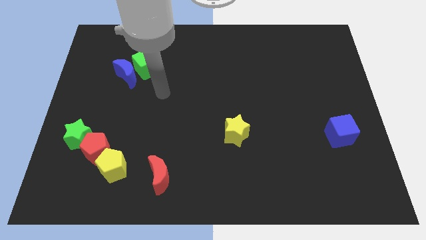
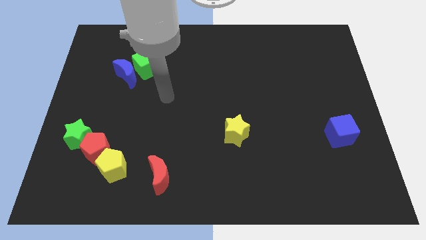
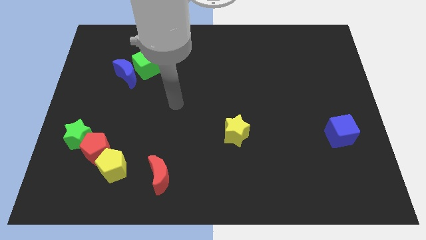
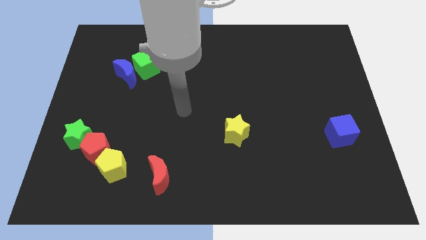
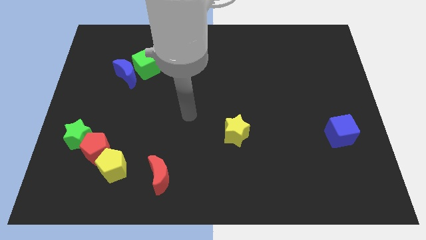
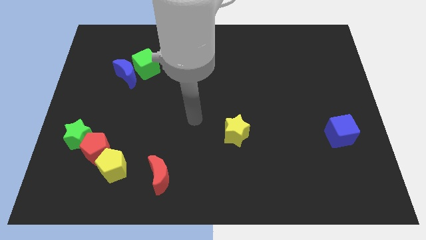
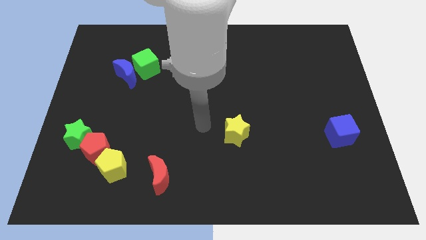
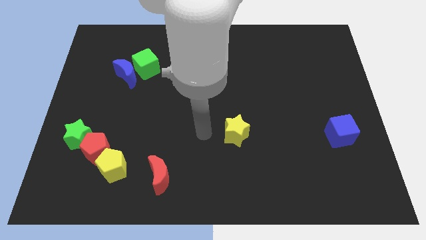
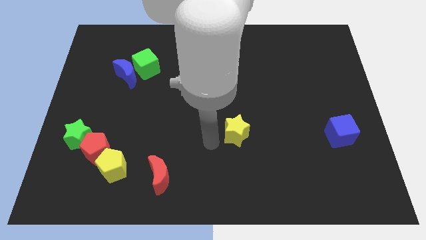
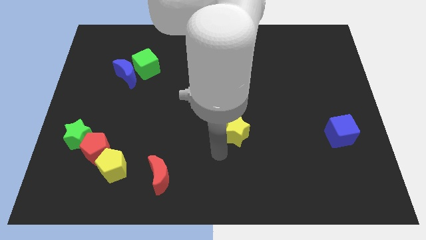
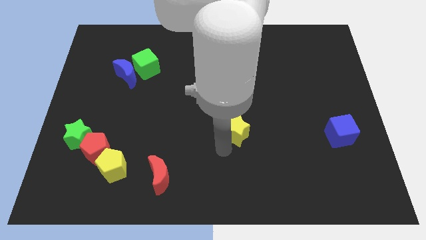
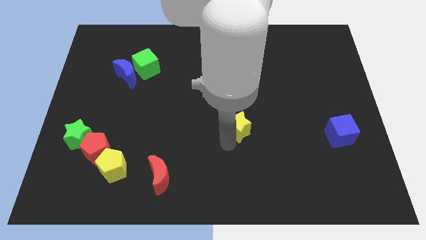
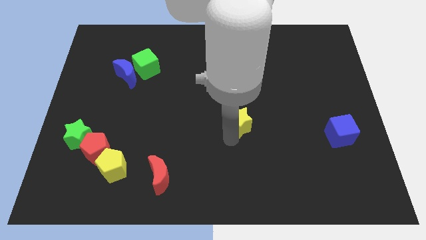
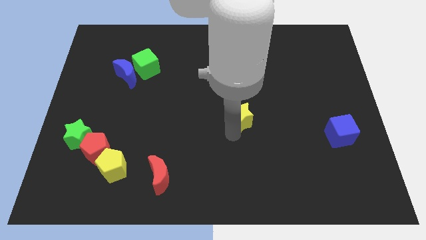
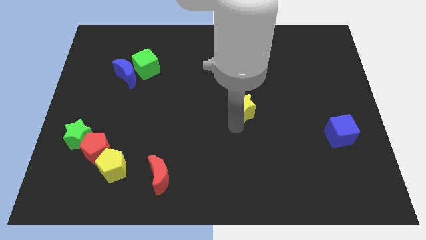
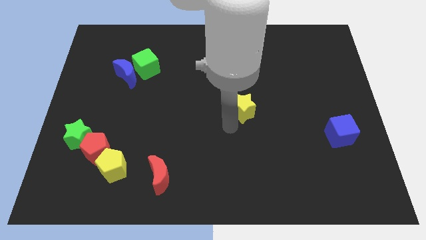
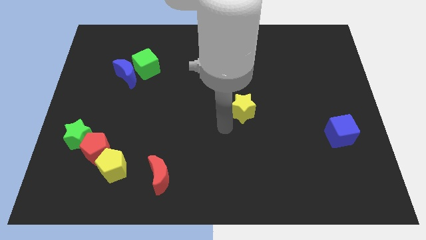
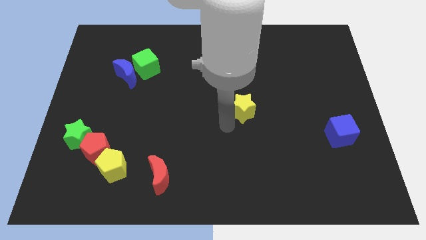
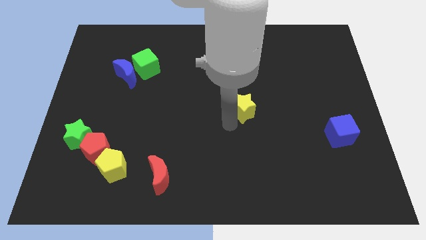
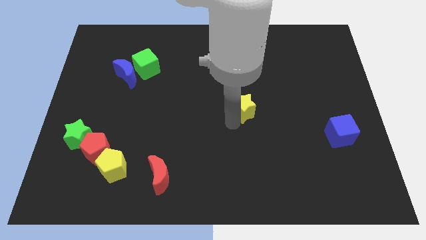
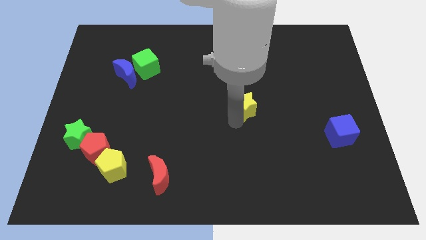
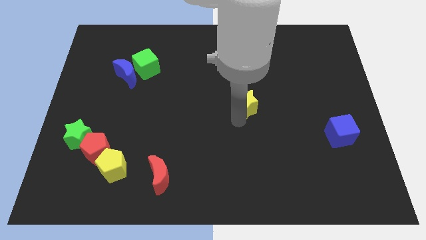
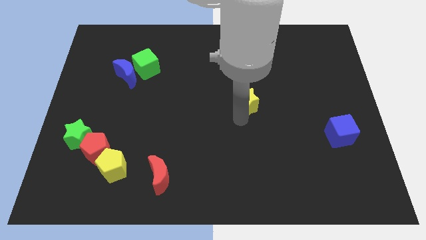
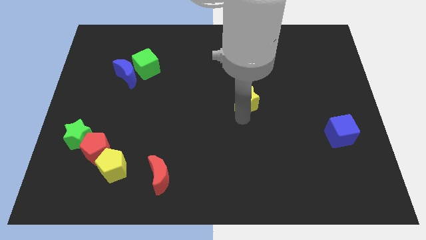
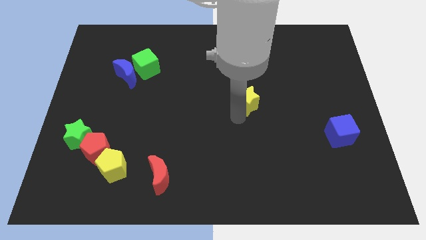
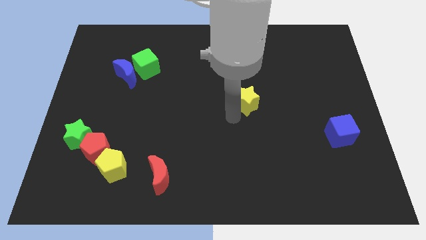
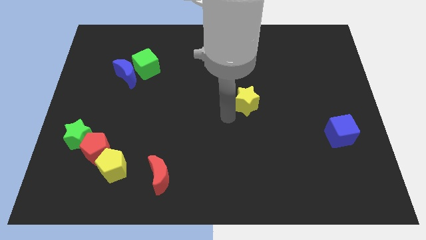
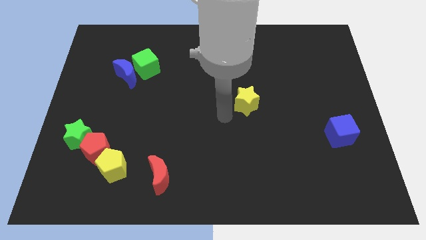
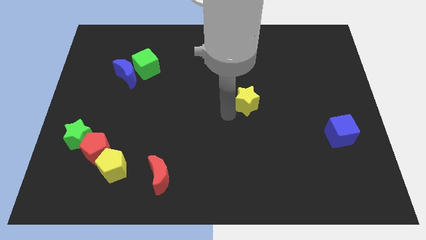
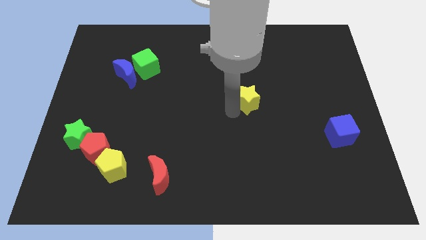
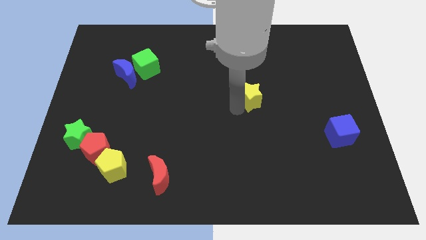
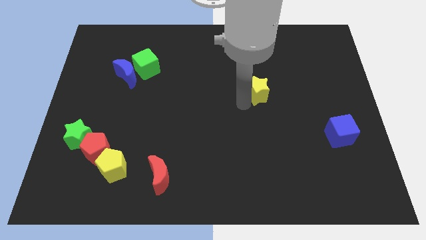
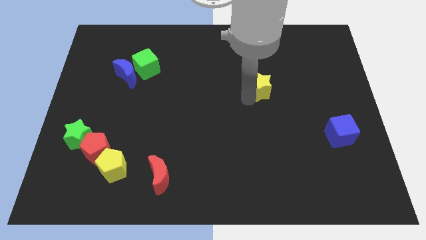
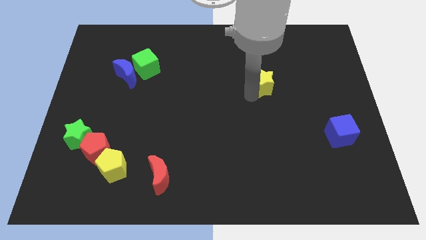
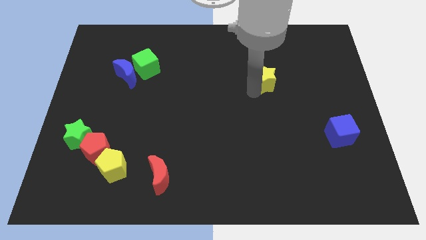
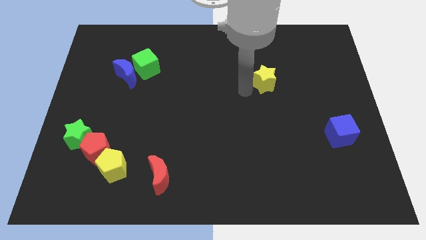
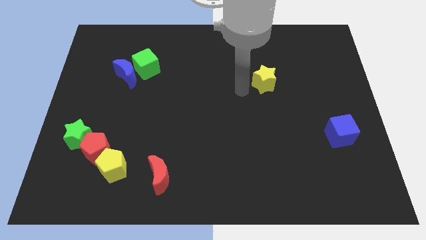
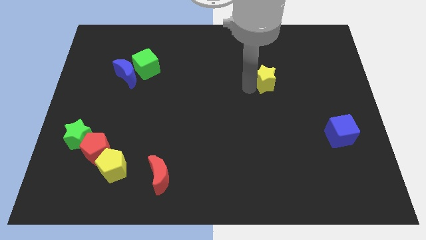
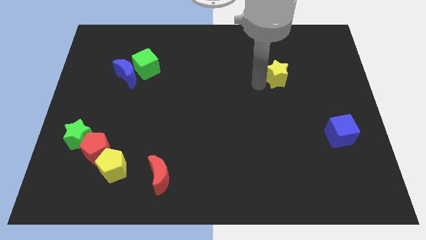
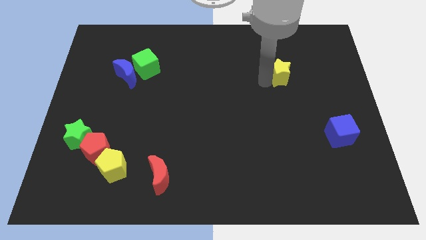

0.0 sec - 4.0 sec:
slide the yellow star upwards and then to the right

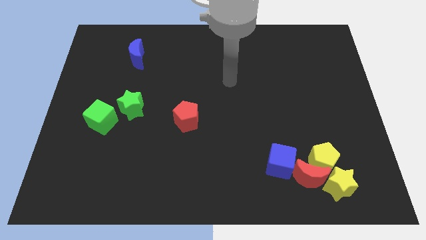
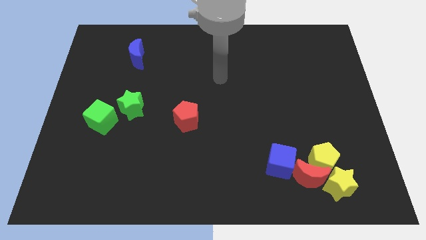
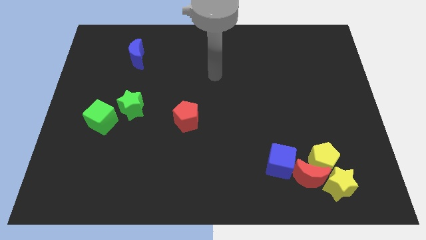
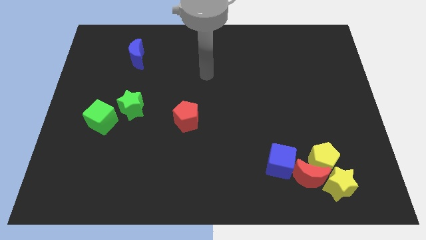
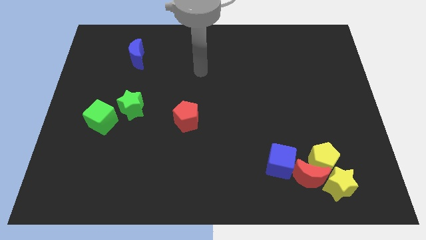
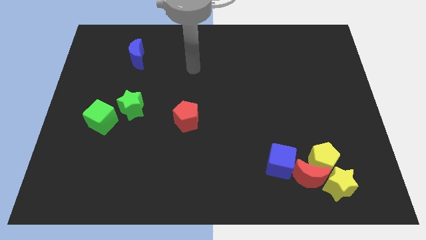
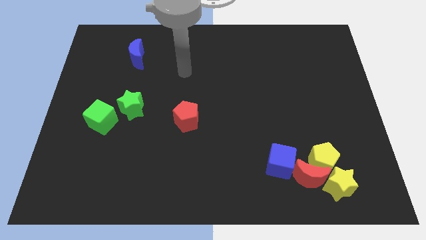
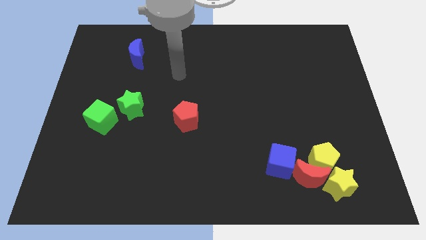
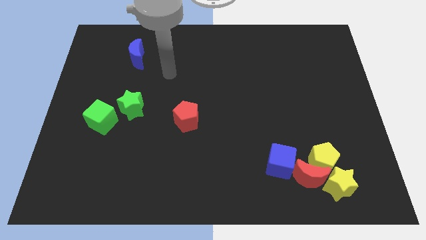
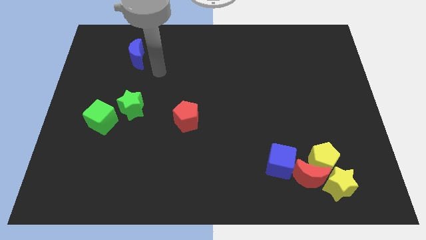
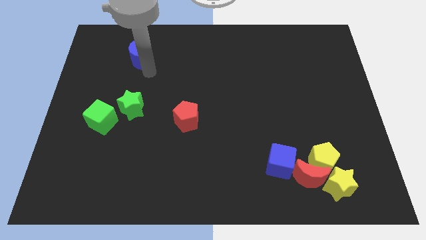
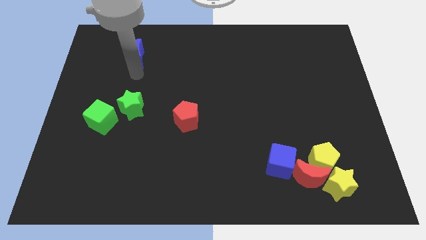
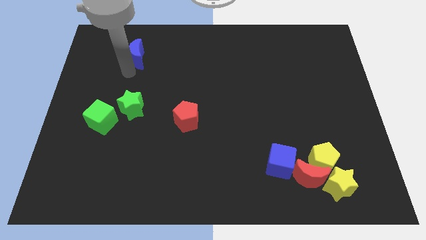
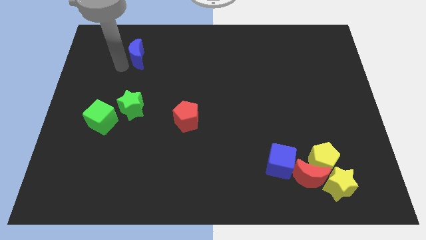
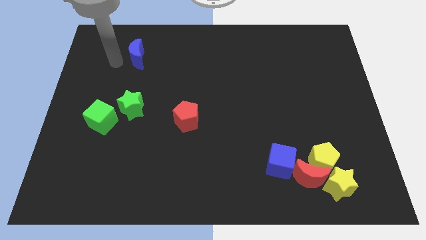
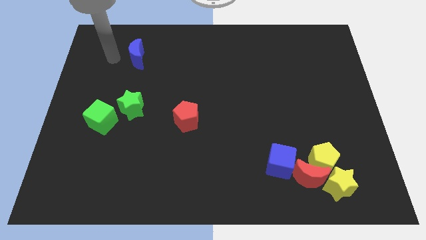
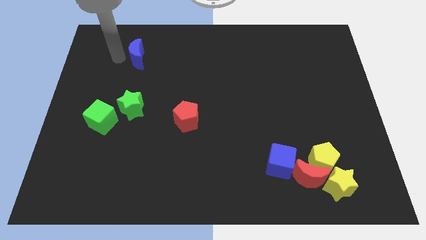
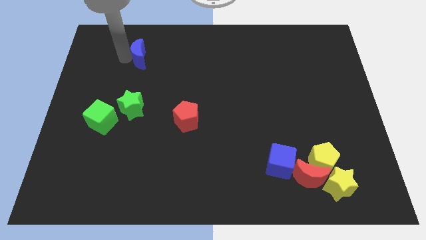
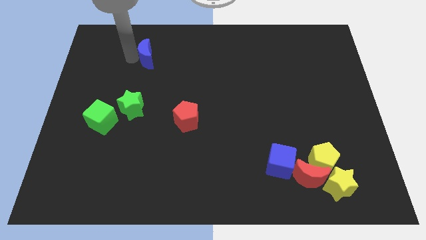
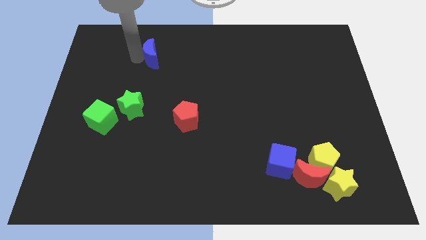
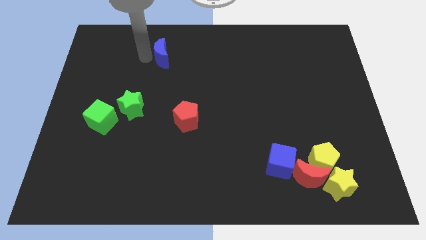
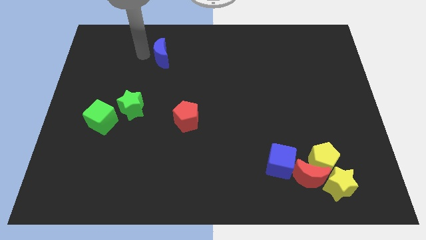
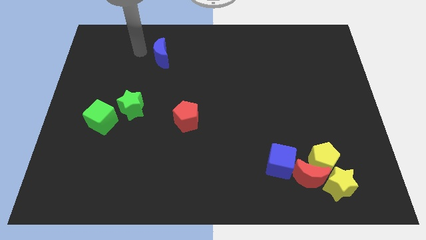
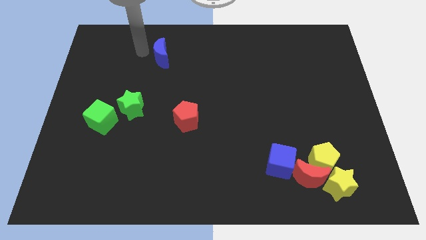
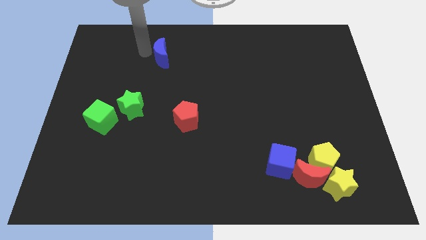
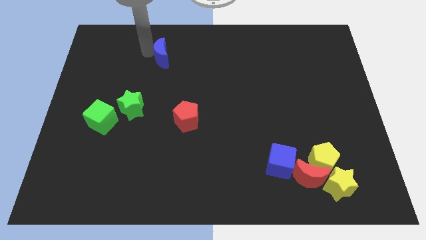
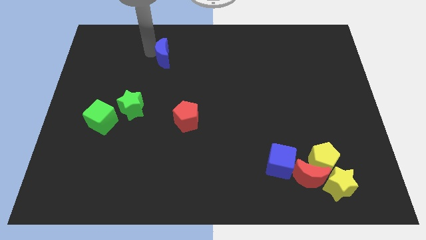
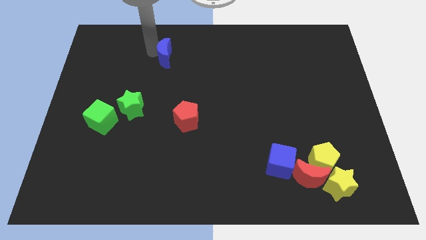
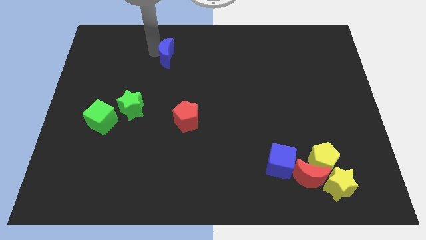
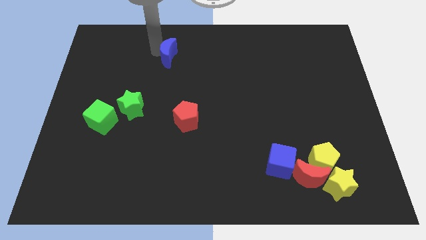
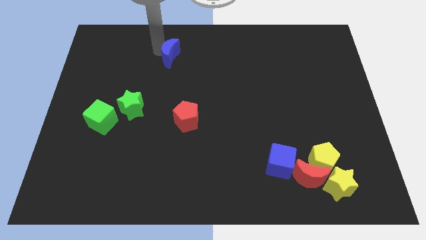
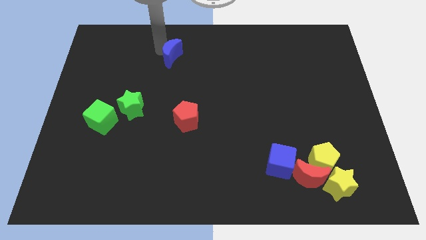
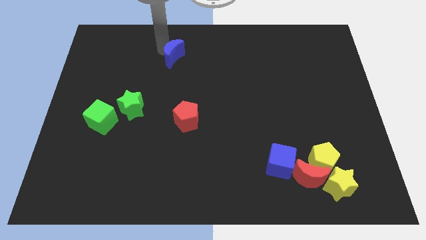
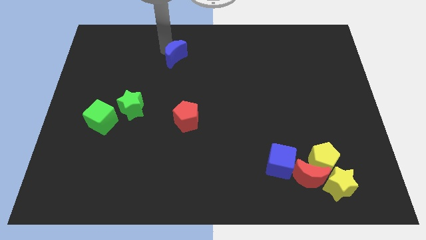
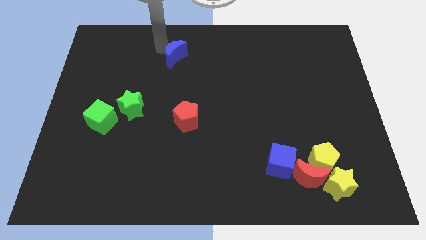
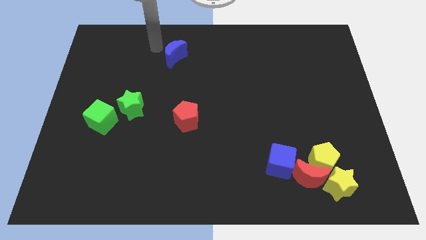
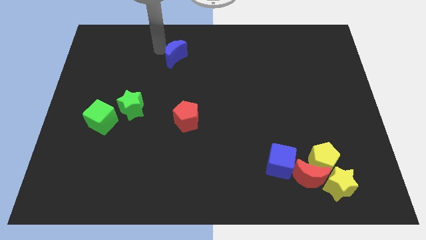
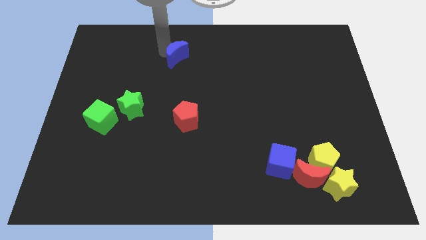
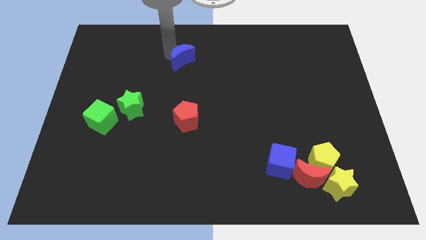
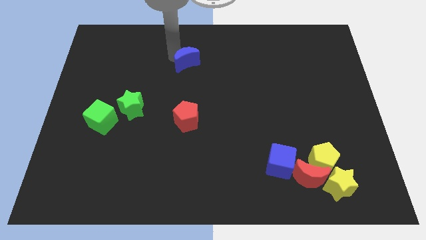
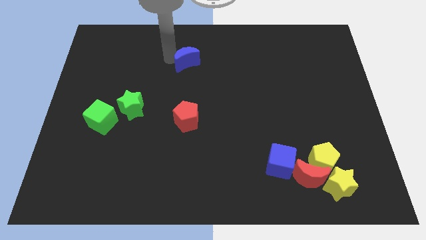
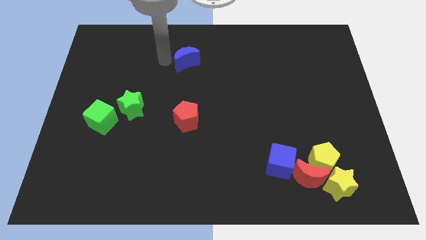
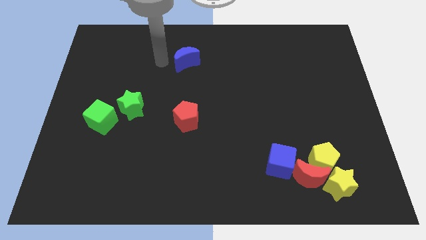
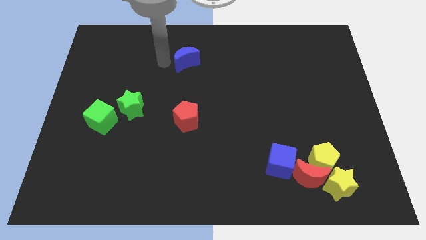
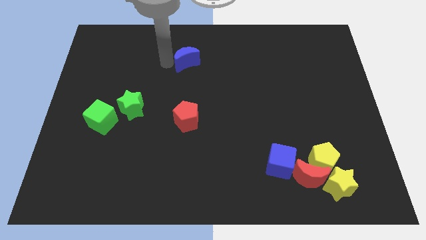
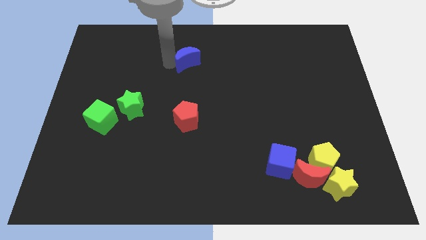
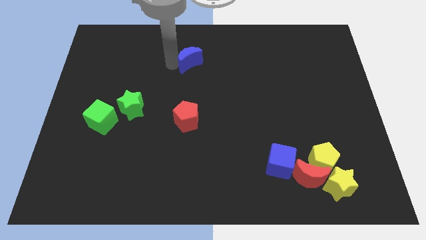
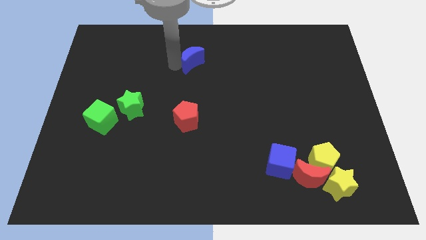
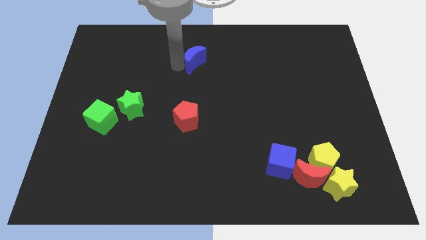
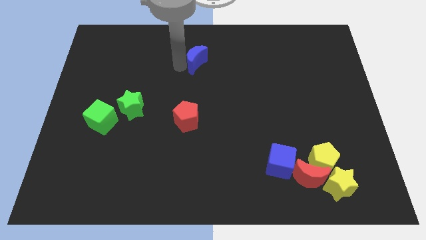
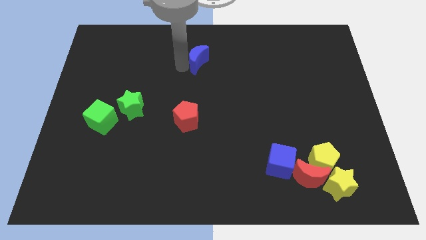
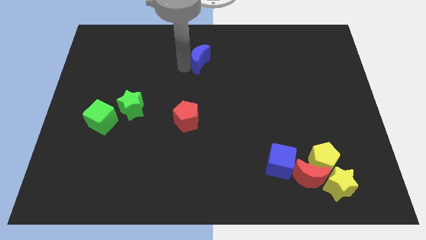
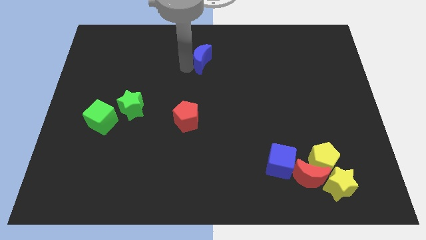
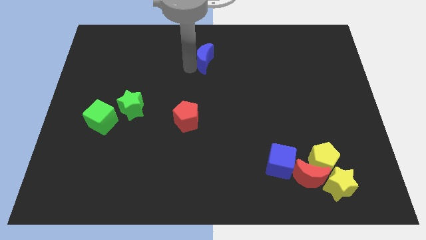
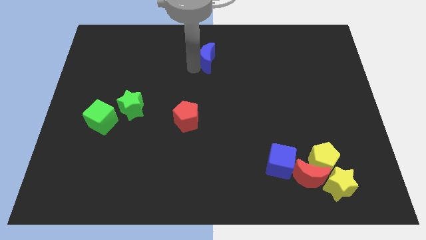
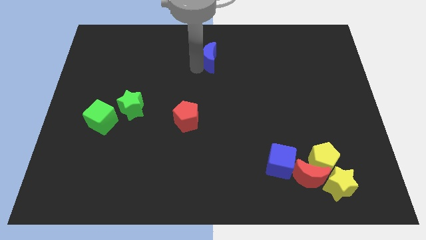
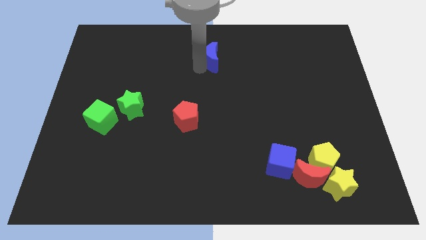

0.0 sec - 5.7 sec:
slide the blue moon right
